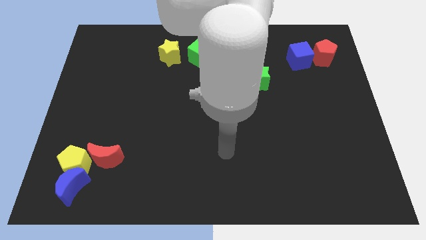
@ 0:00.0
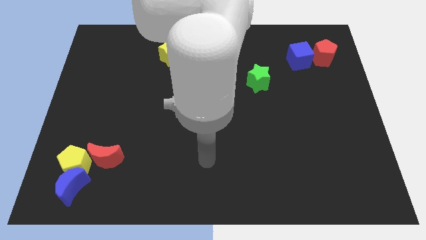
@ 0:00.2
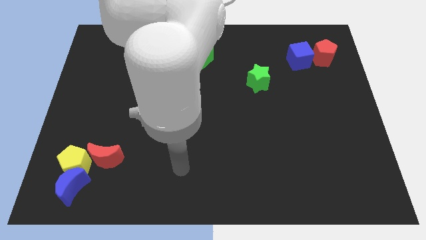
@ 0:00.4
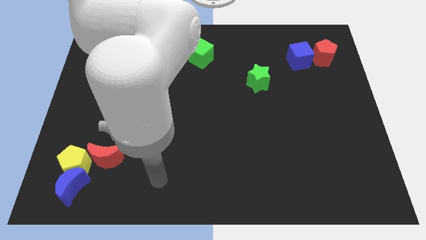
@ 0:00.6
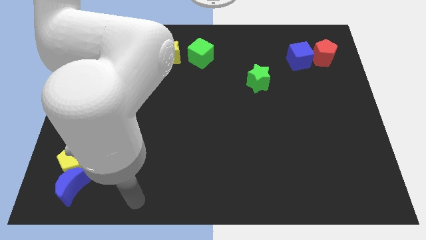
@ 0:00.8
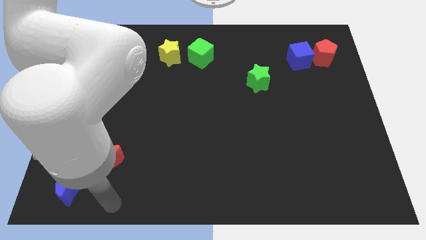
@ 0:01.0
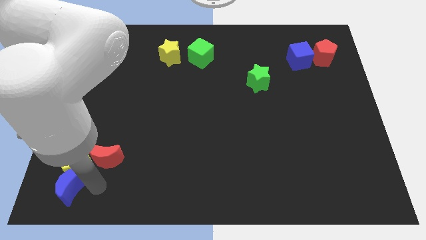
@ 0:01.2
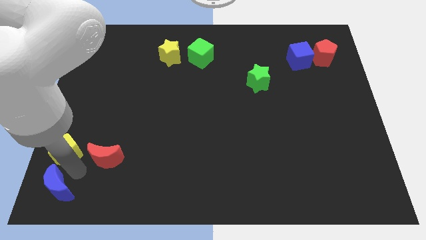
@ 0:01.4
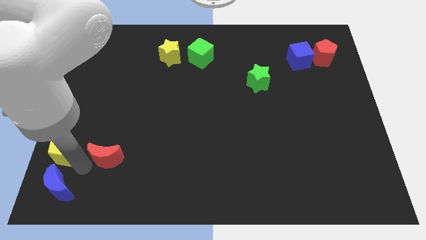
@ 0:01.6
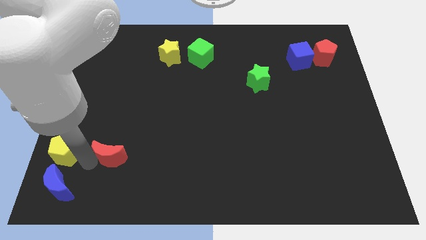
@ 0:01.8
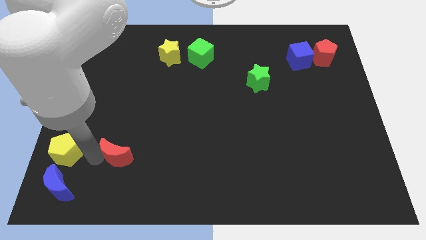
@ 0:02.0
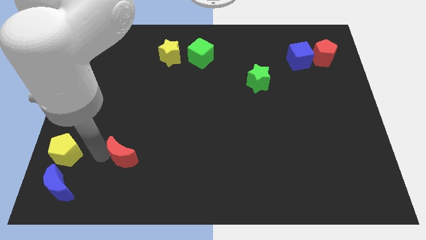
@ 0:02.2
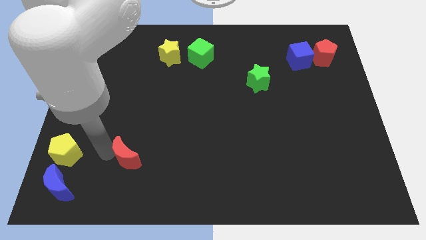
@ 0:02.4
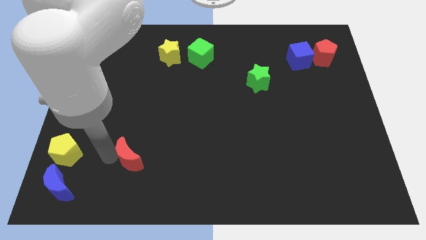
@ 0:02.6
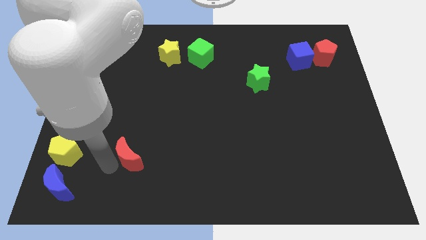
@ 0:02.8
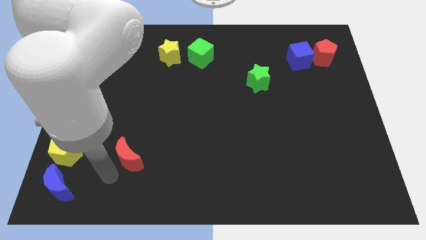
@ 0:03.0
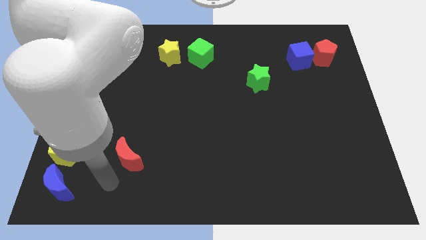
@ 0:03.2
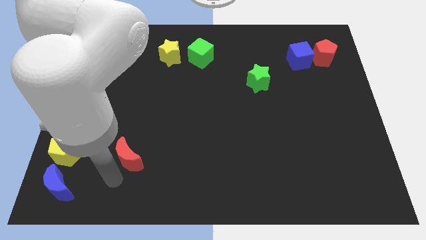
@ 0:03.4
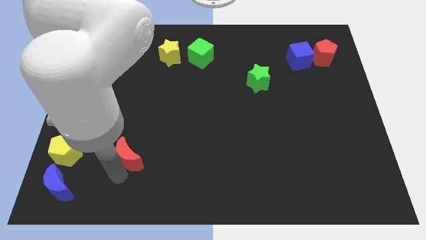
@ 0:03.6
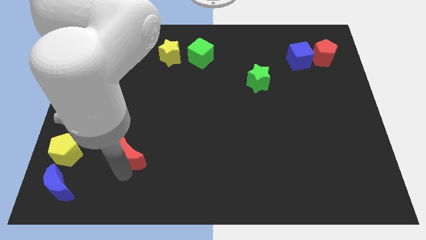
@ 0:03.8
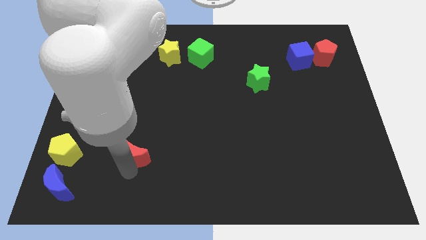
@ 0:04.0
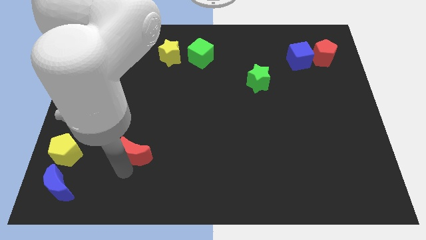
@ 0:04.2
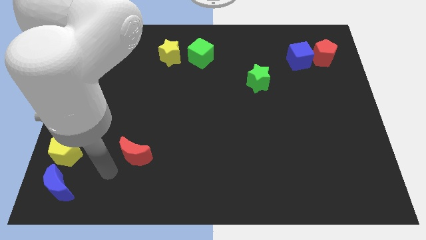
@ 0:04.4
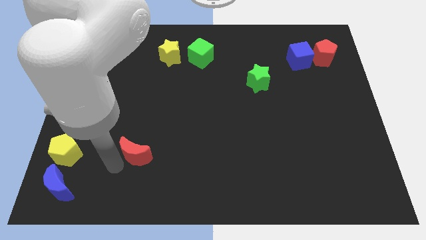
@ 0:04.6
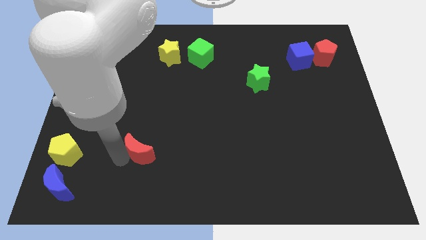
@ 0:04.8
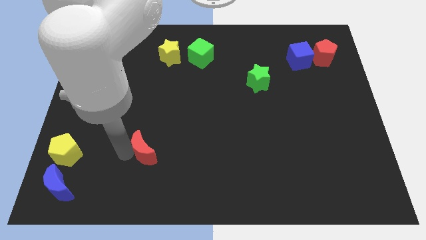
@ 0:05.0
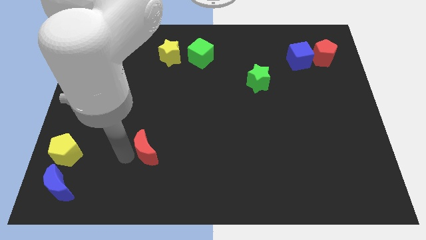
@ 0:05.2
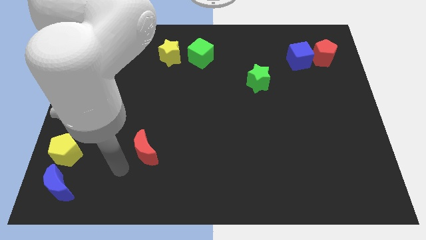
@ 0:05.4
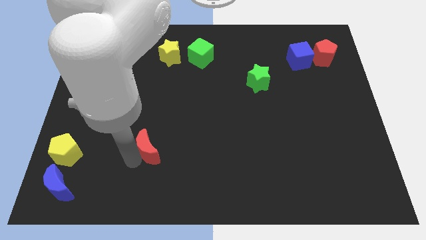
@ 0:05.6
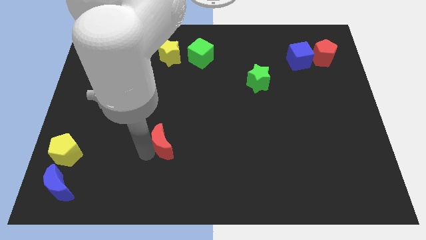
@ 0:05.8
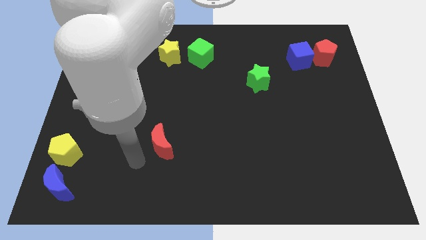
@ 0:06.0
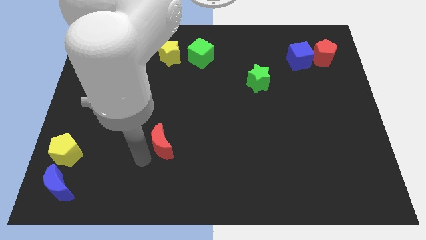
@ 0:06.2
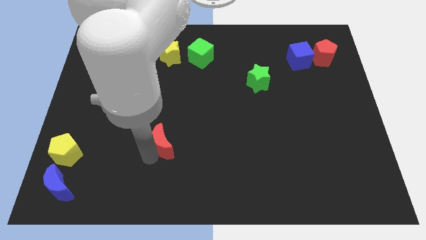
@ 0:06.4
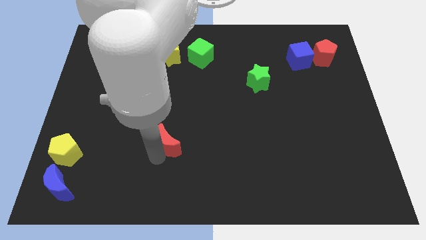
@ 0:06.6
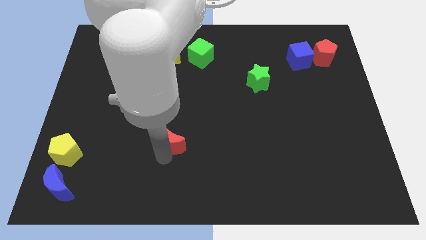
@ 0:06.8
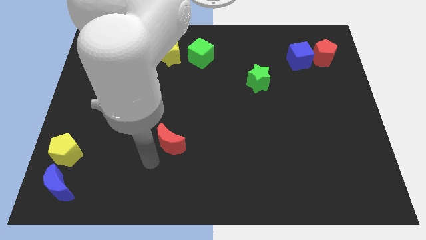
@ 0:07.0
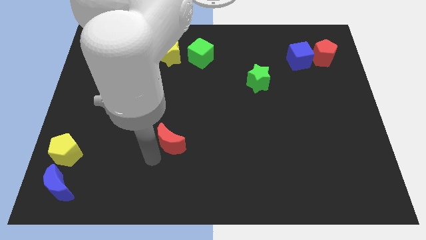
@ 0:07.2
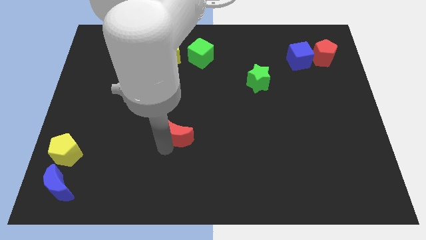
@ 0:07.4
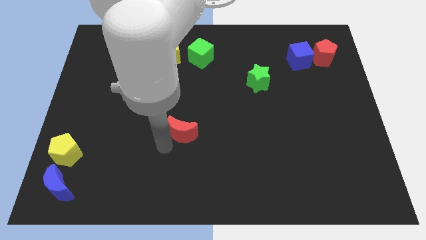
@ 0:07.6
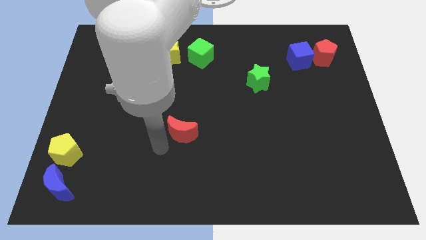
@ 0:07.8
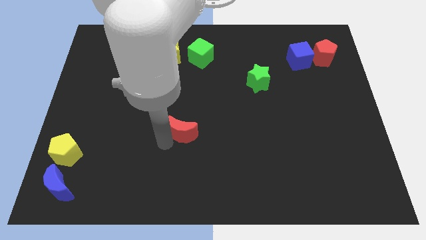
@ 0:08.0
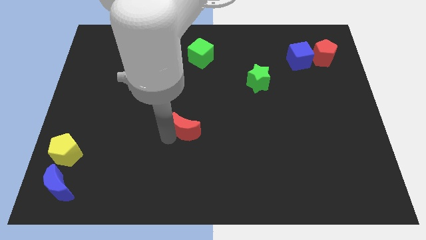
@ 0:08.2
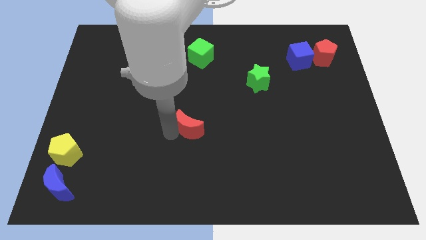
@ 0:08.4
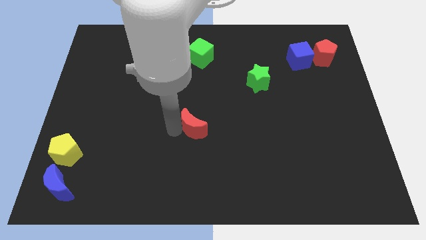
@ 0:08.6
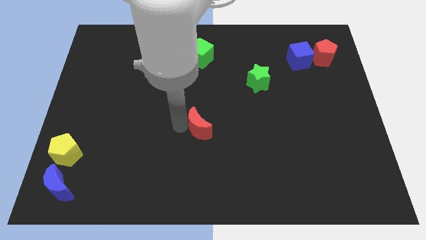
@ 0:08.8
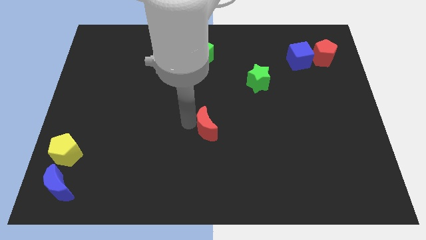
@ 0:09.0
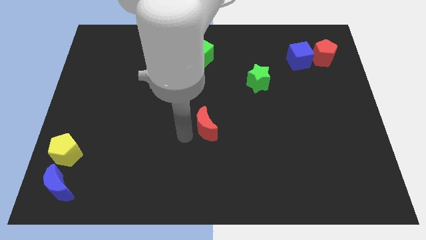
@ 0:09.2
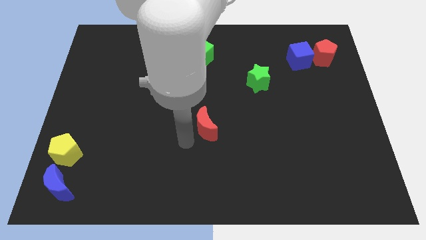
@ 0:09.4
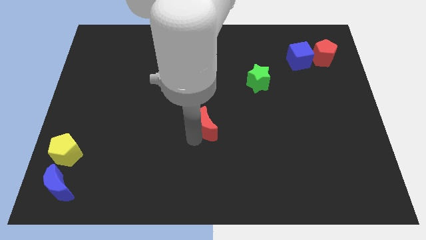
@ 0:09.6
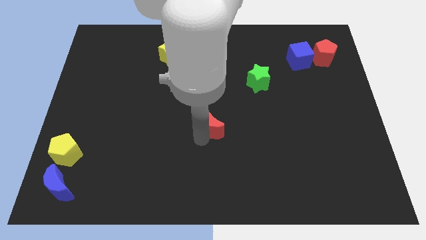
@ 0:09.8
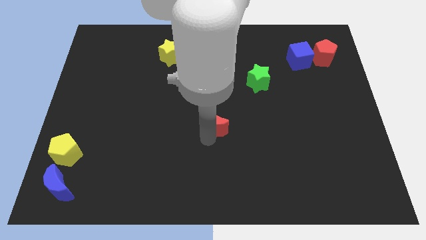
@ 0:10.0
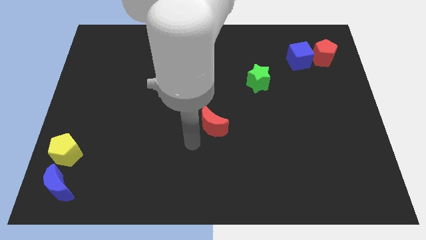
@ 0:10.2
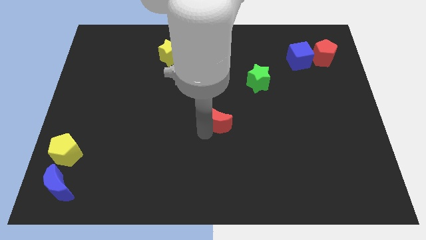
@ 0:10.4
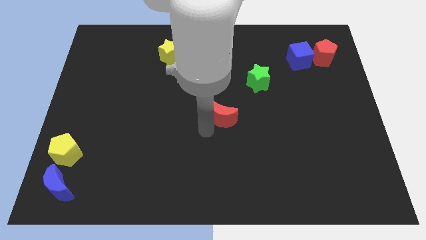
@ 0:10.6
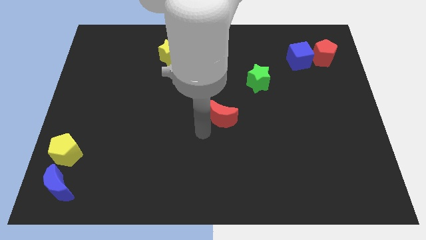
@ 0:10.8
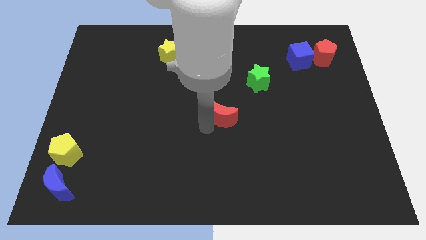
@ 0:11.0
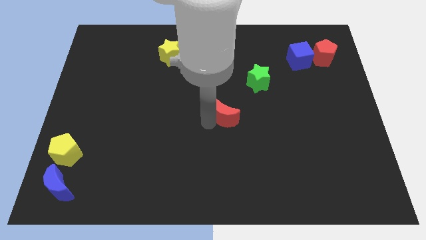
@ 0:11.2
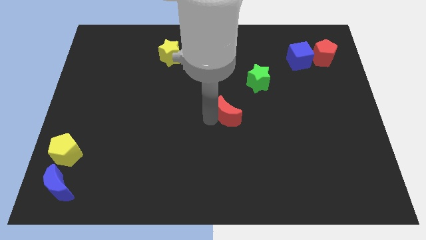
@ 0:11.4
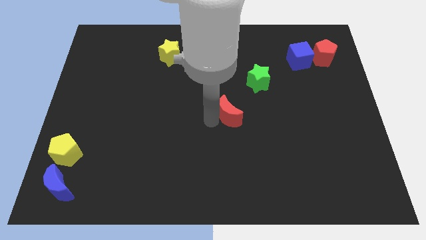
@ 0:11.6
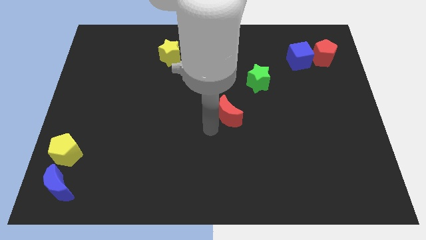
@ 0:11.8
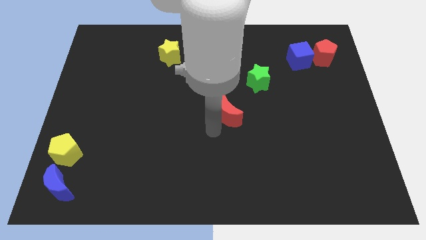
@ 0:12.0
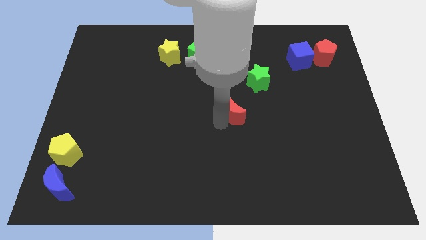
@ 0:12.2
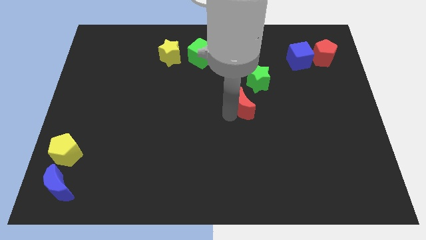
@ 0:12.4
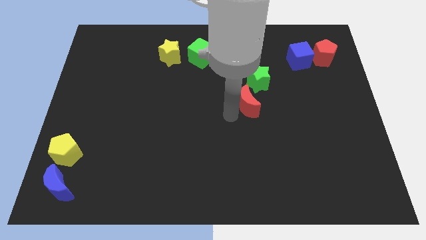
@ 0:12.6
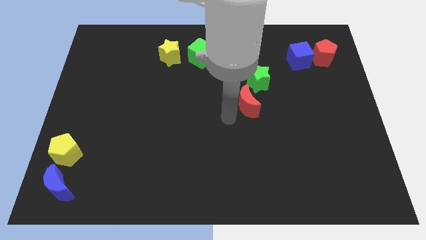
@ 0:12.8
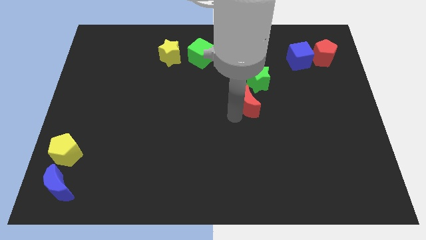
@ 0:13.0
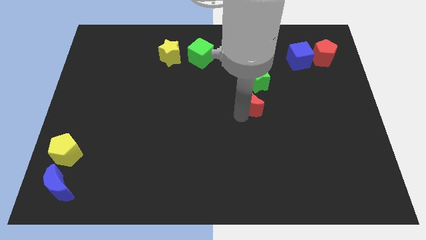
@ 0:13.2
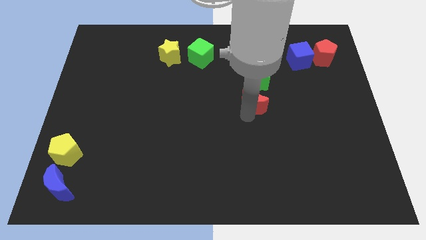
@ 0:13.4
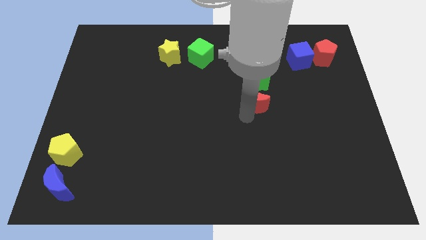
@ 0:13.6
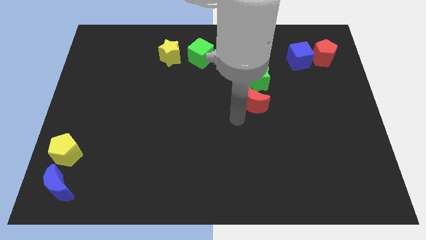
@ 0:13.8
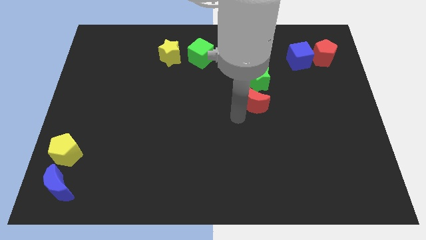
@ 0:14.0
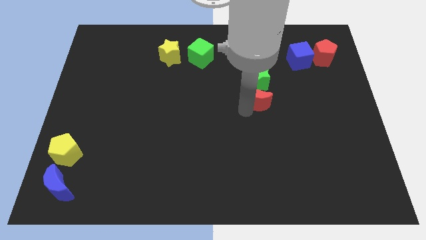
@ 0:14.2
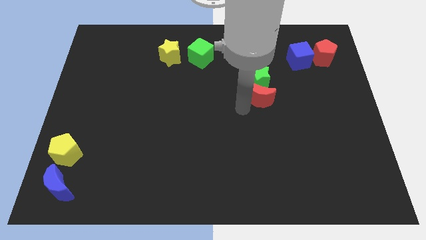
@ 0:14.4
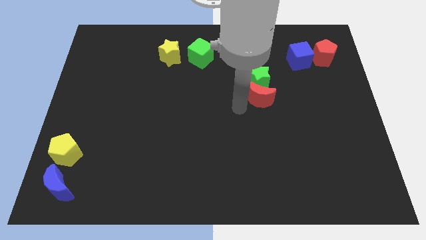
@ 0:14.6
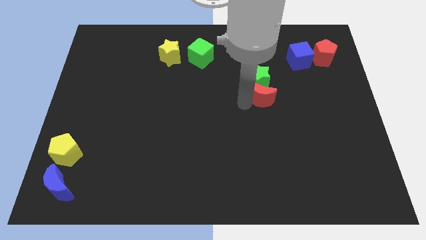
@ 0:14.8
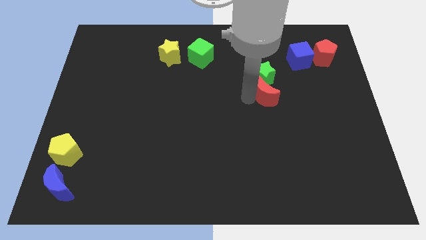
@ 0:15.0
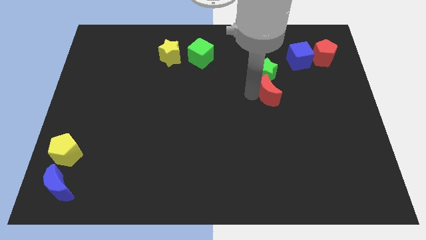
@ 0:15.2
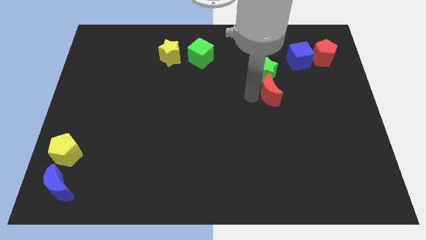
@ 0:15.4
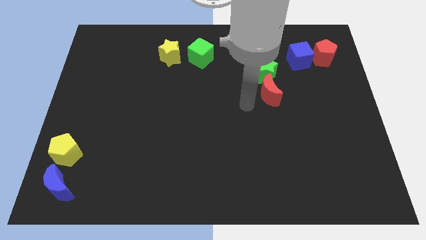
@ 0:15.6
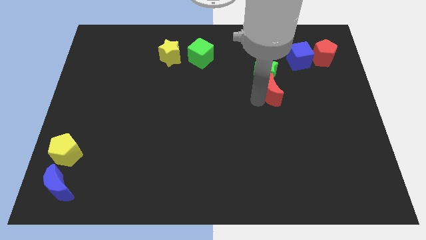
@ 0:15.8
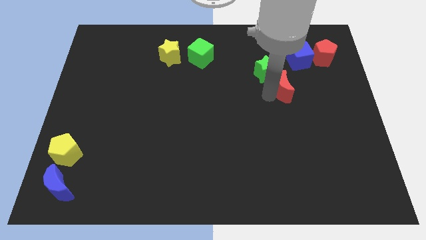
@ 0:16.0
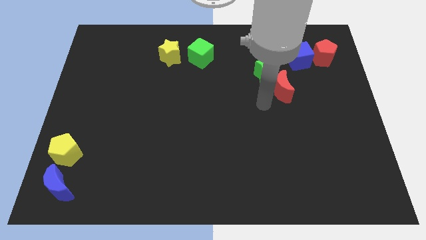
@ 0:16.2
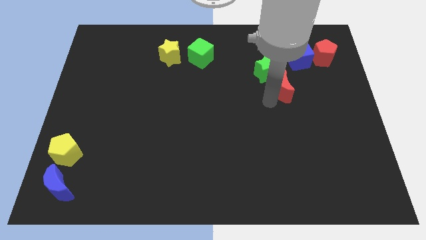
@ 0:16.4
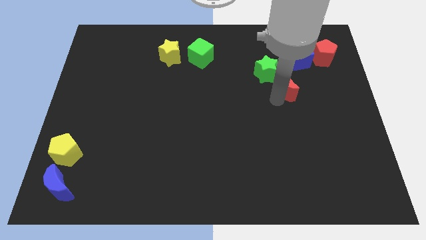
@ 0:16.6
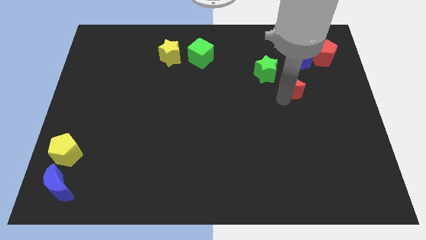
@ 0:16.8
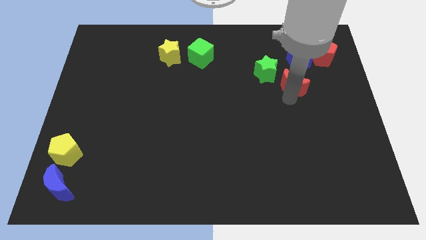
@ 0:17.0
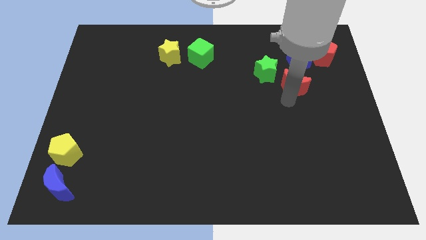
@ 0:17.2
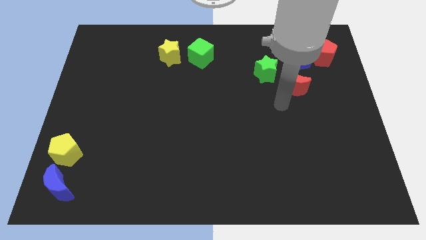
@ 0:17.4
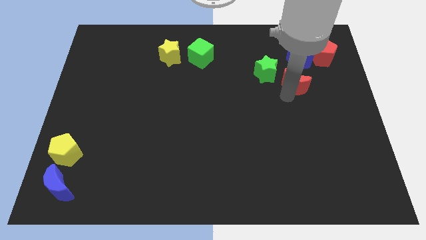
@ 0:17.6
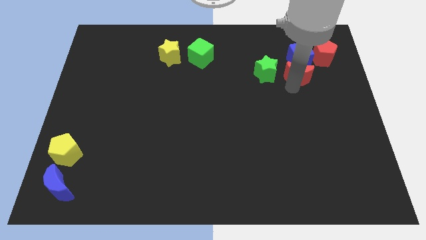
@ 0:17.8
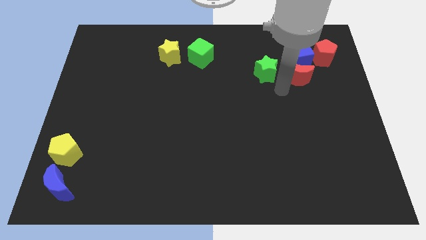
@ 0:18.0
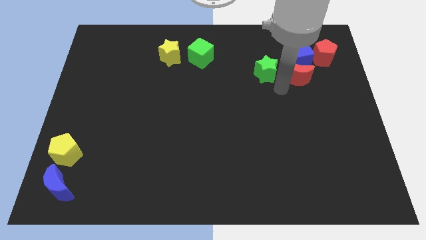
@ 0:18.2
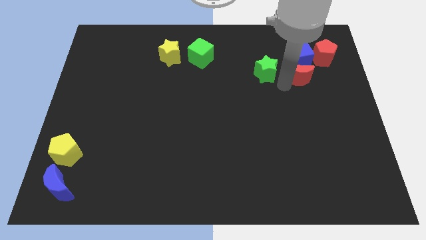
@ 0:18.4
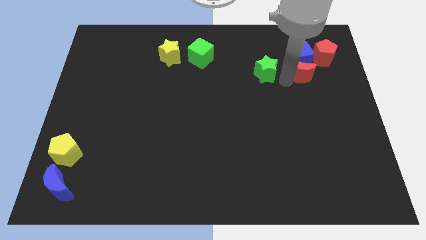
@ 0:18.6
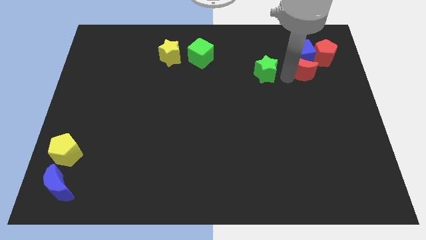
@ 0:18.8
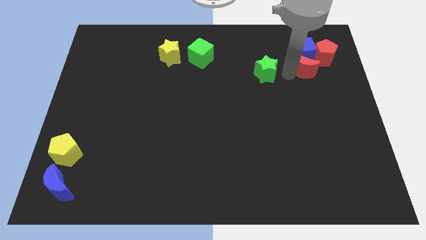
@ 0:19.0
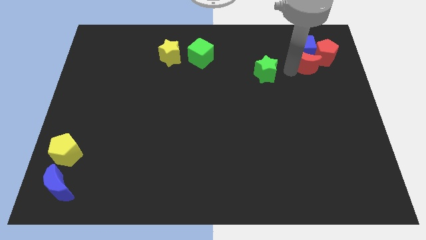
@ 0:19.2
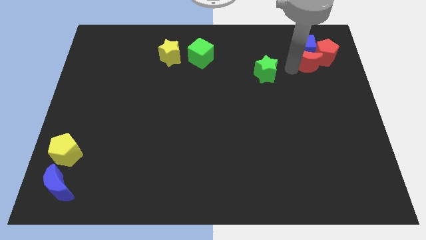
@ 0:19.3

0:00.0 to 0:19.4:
push the red moon close to the red pentagon
